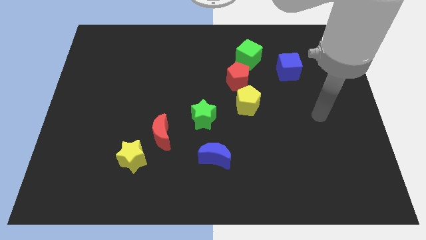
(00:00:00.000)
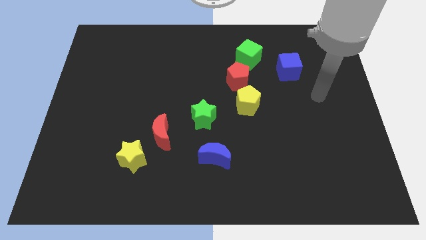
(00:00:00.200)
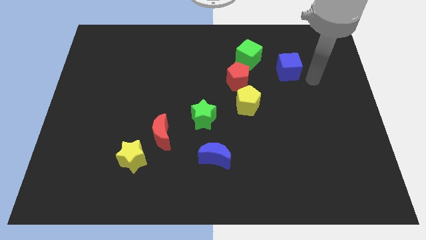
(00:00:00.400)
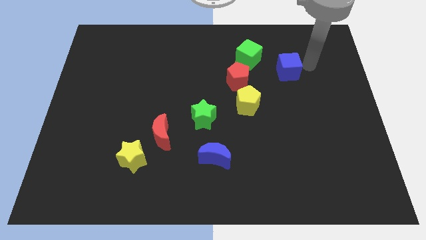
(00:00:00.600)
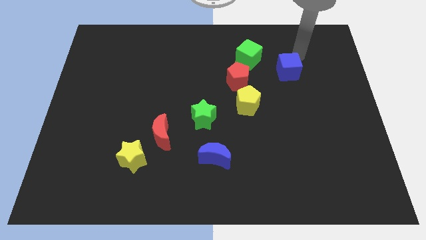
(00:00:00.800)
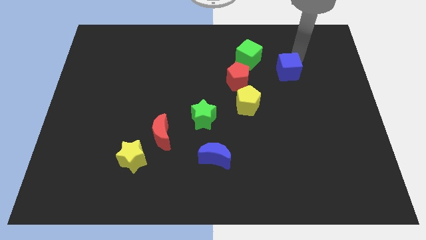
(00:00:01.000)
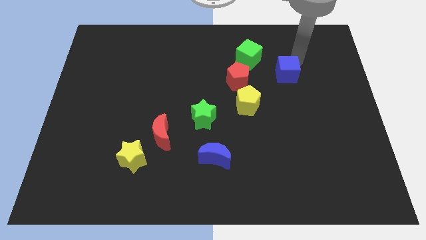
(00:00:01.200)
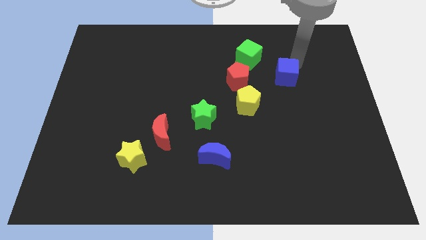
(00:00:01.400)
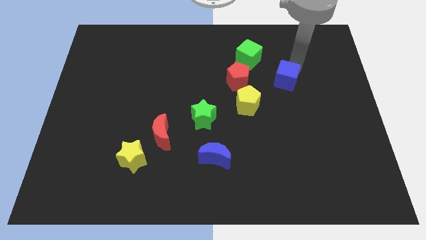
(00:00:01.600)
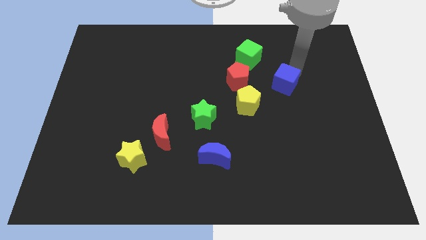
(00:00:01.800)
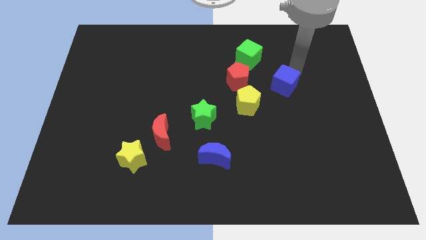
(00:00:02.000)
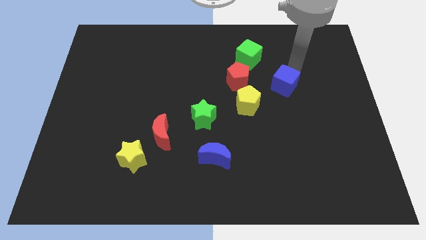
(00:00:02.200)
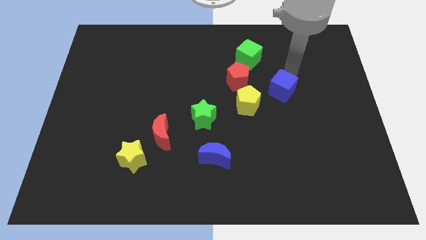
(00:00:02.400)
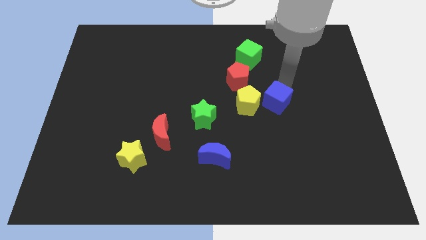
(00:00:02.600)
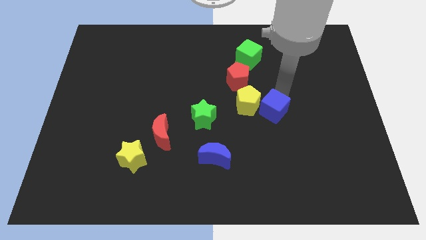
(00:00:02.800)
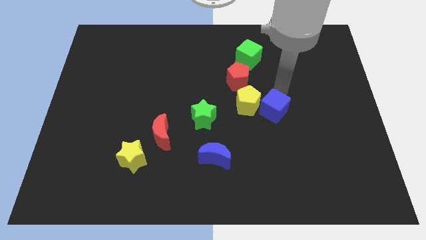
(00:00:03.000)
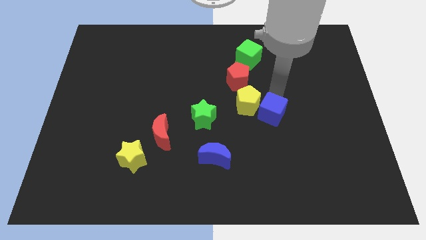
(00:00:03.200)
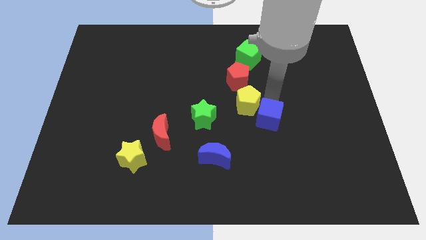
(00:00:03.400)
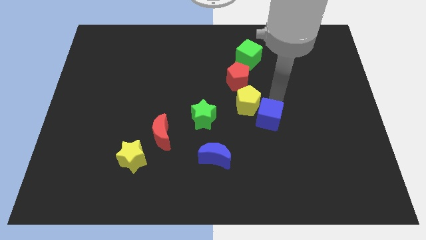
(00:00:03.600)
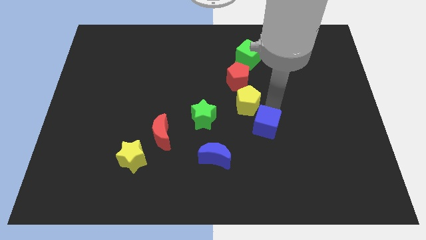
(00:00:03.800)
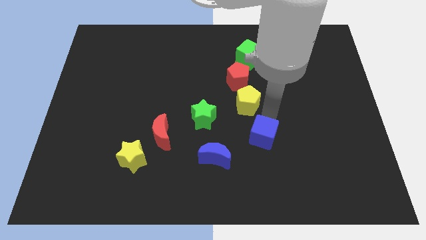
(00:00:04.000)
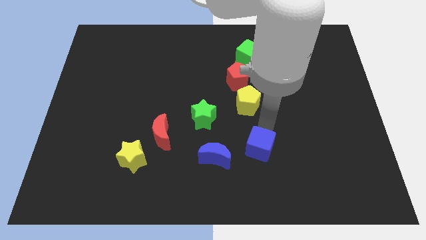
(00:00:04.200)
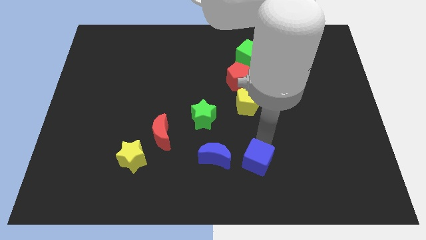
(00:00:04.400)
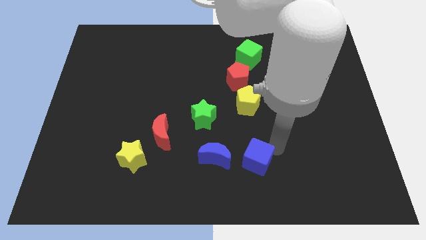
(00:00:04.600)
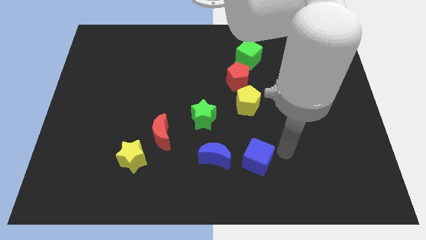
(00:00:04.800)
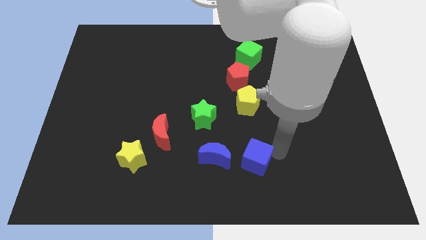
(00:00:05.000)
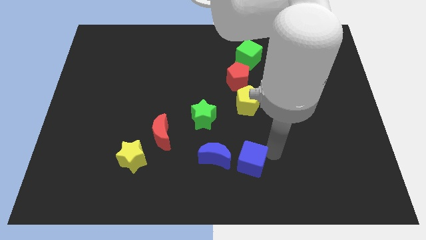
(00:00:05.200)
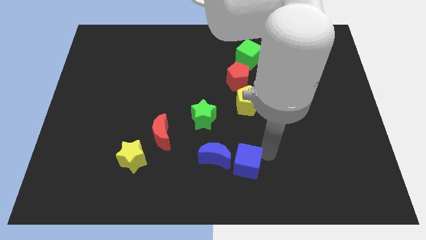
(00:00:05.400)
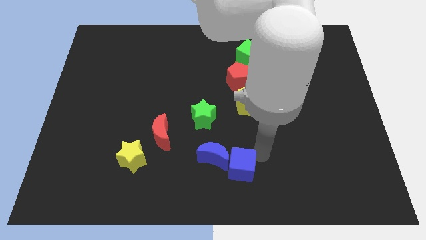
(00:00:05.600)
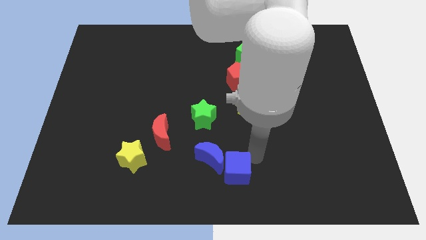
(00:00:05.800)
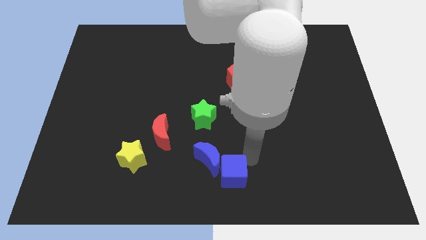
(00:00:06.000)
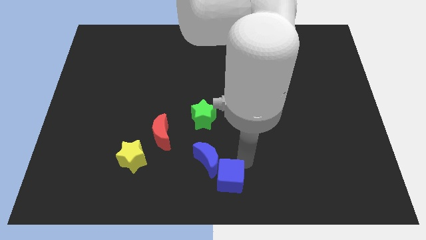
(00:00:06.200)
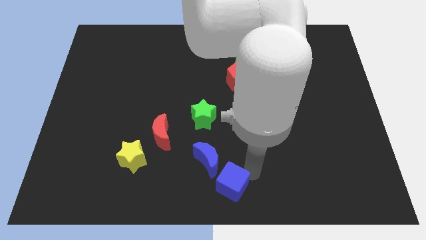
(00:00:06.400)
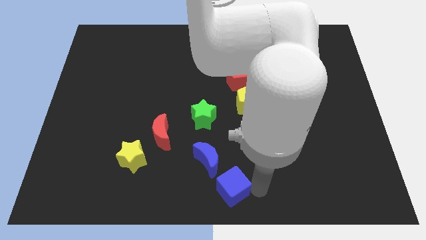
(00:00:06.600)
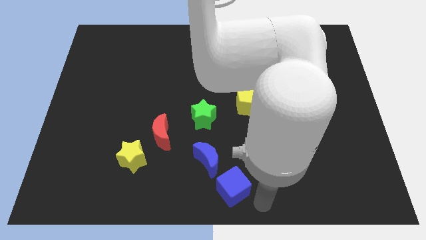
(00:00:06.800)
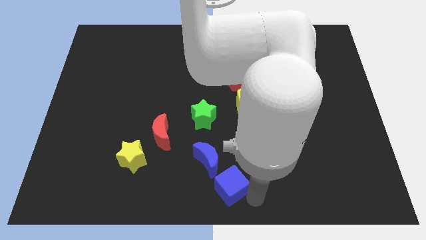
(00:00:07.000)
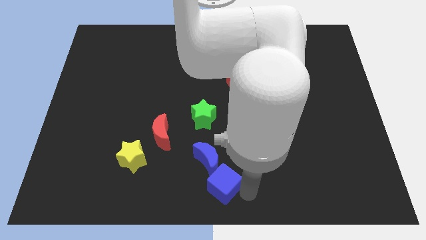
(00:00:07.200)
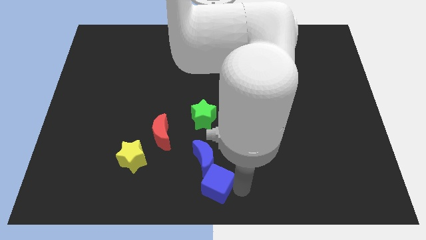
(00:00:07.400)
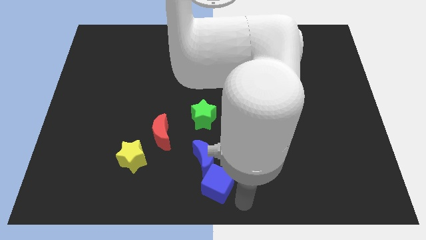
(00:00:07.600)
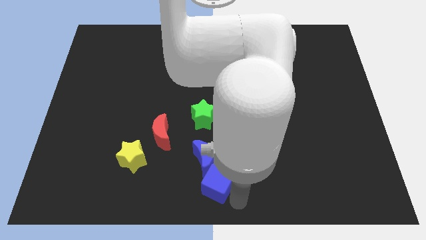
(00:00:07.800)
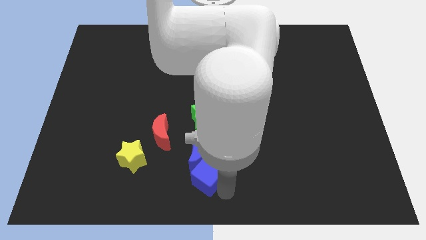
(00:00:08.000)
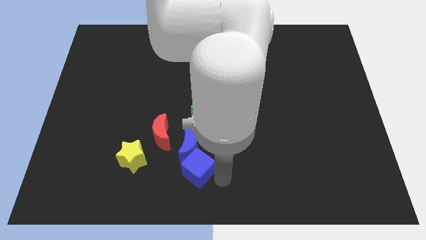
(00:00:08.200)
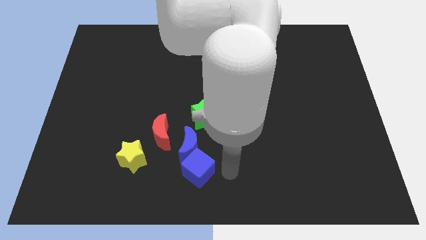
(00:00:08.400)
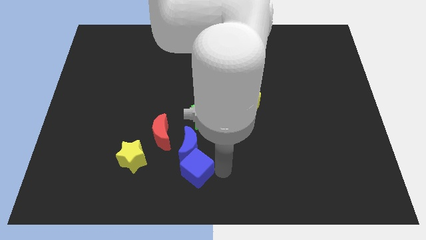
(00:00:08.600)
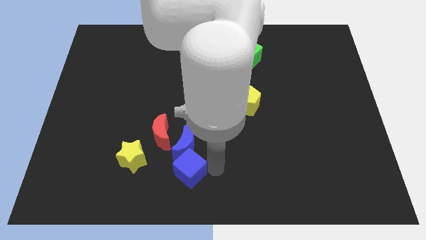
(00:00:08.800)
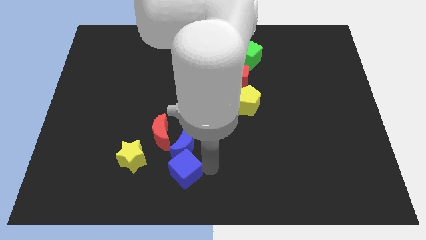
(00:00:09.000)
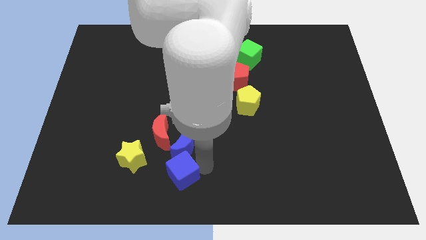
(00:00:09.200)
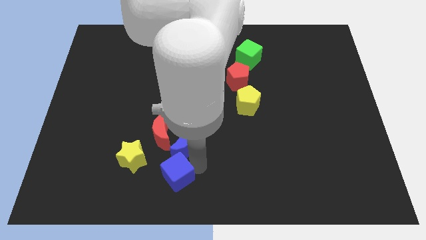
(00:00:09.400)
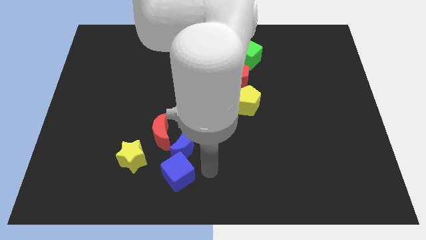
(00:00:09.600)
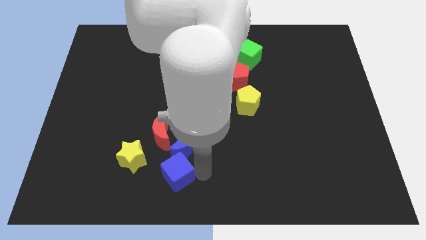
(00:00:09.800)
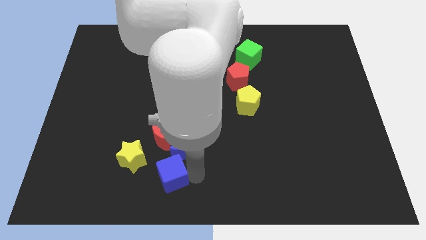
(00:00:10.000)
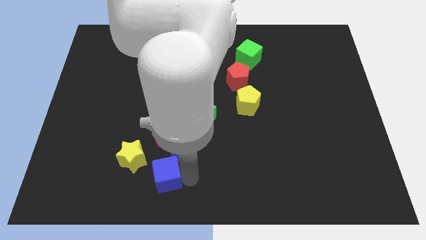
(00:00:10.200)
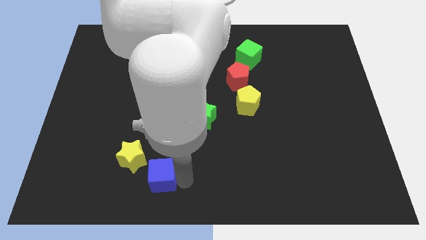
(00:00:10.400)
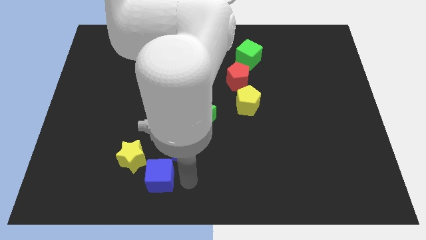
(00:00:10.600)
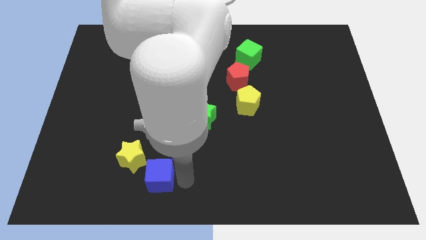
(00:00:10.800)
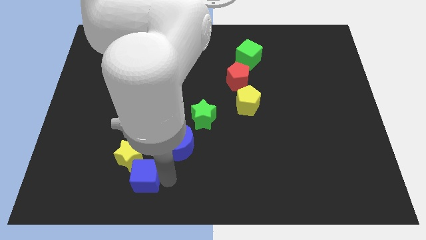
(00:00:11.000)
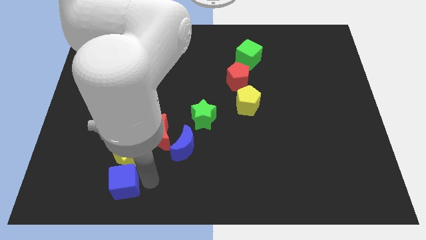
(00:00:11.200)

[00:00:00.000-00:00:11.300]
move the blue cube diagonally down and to the left of the yellow star
